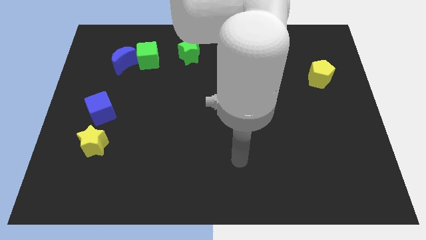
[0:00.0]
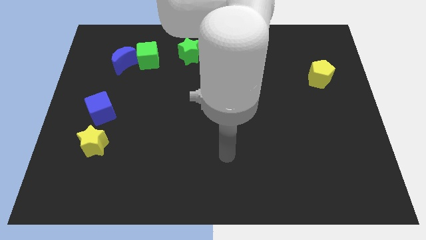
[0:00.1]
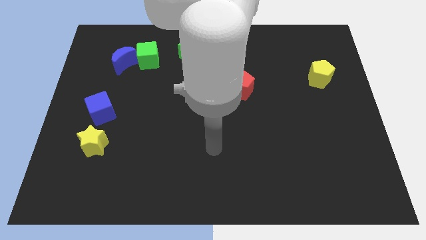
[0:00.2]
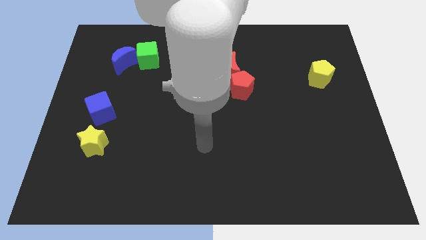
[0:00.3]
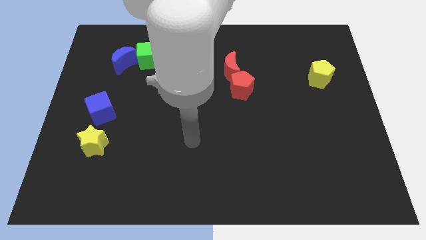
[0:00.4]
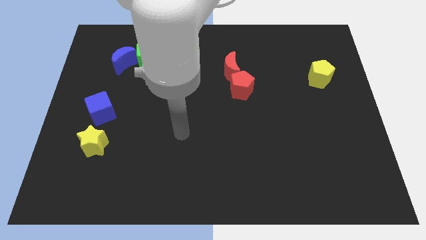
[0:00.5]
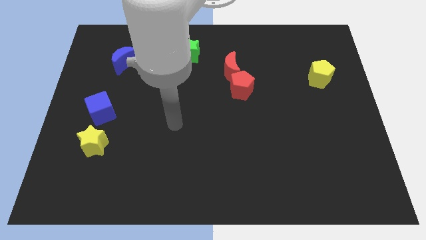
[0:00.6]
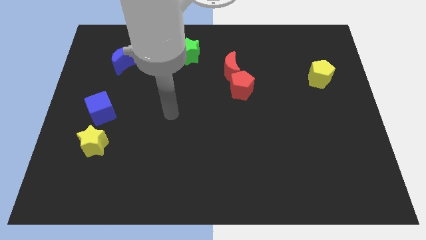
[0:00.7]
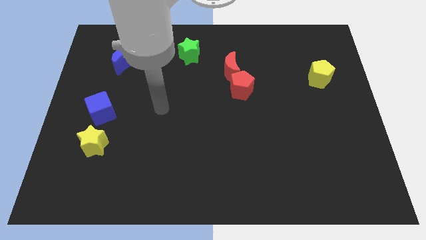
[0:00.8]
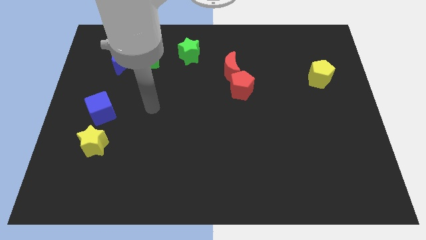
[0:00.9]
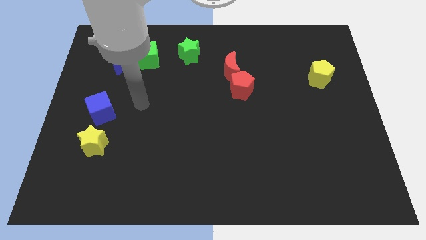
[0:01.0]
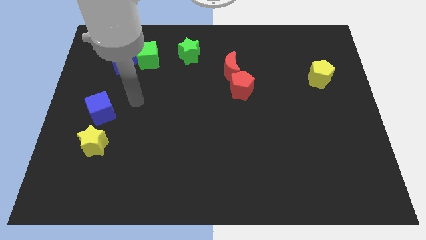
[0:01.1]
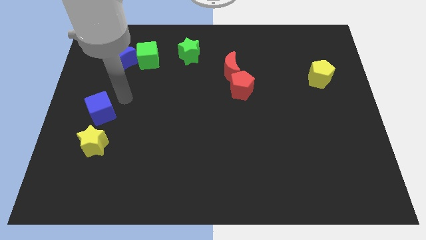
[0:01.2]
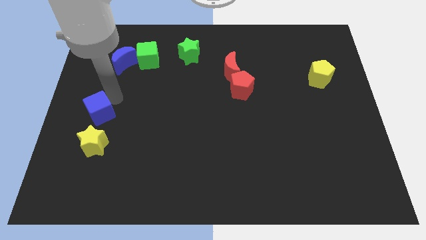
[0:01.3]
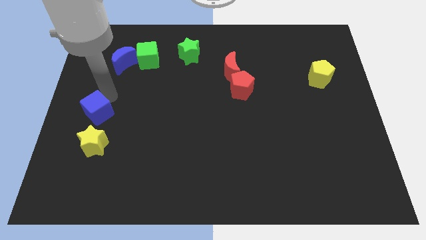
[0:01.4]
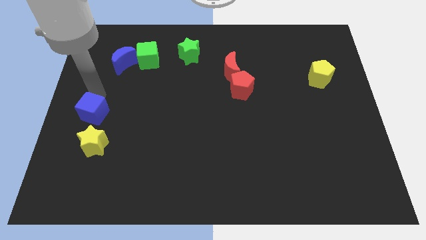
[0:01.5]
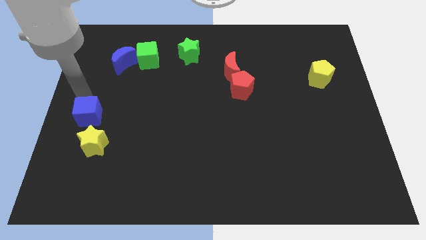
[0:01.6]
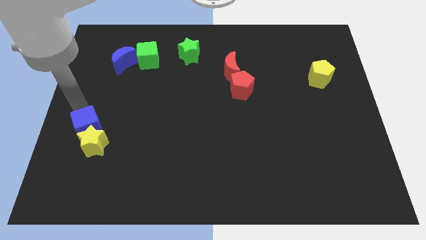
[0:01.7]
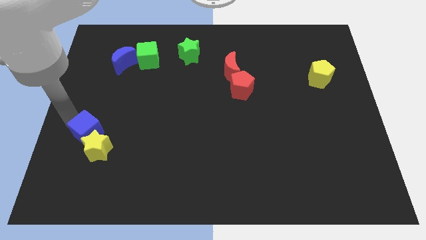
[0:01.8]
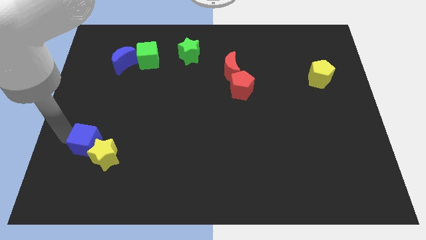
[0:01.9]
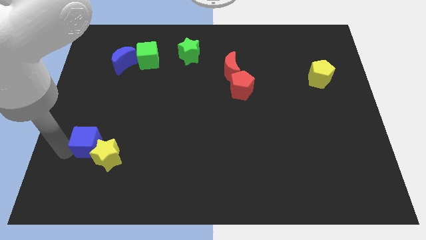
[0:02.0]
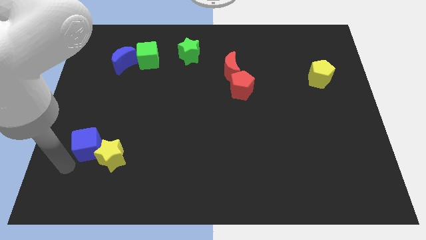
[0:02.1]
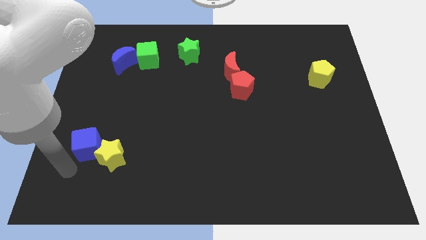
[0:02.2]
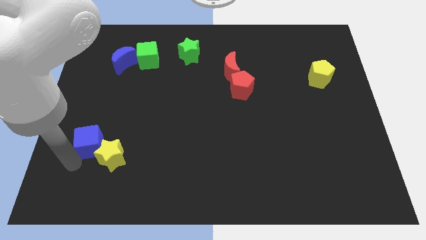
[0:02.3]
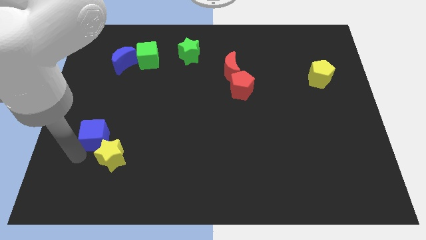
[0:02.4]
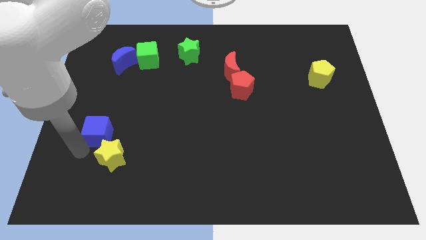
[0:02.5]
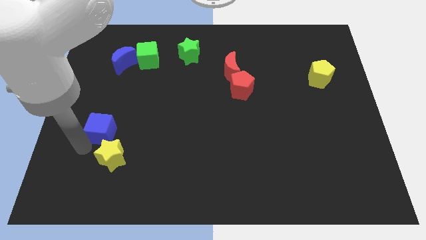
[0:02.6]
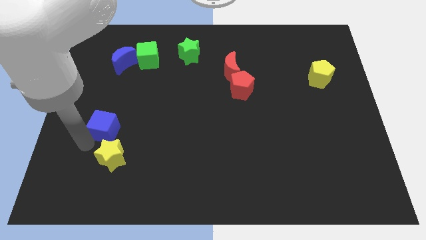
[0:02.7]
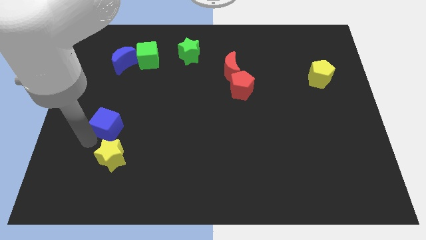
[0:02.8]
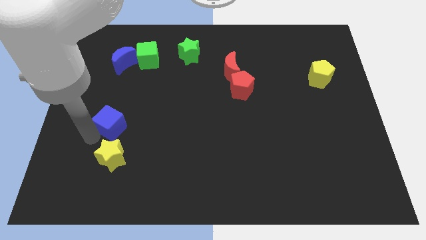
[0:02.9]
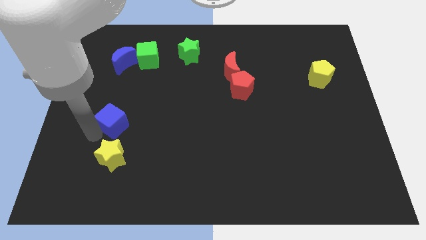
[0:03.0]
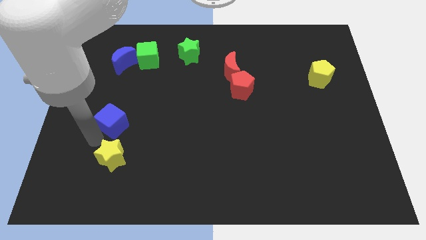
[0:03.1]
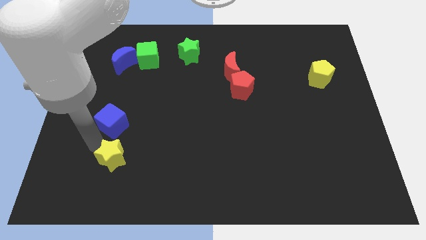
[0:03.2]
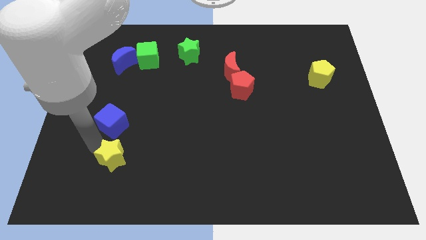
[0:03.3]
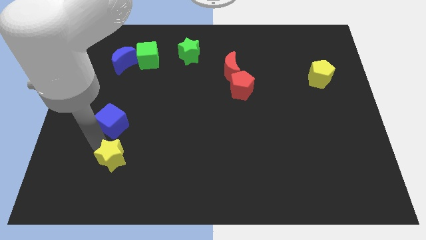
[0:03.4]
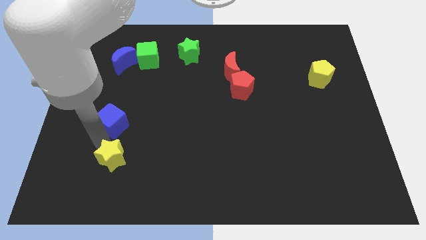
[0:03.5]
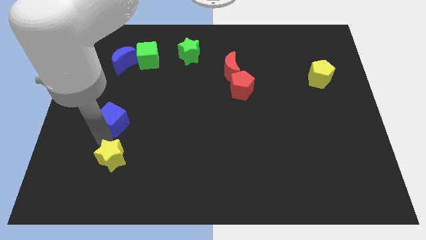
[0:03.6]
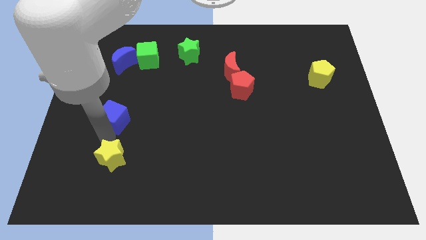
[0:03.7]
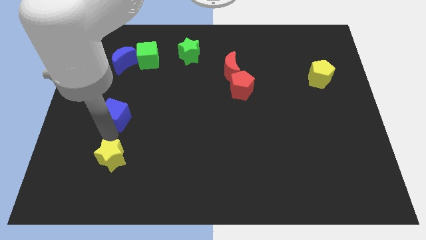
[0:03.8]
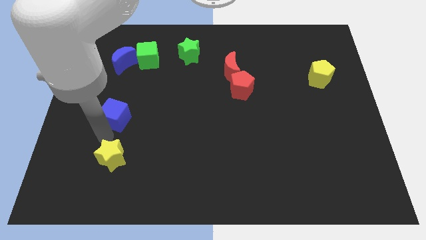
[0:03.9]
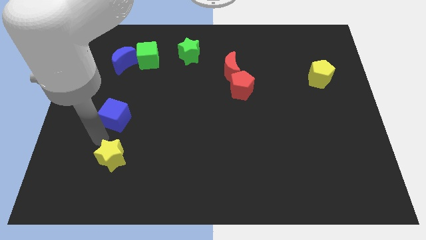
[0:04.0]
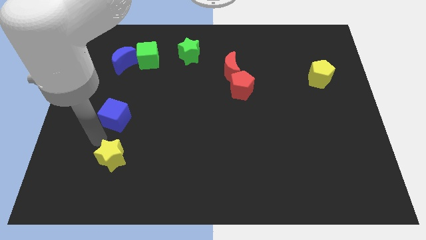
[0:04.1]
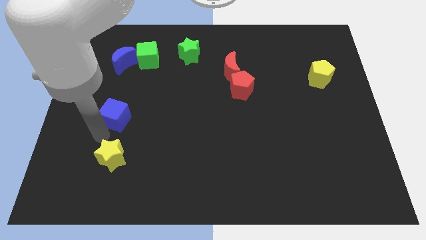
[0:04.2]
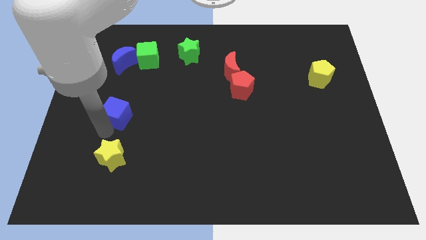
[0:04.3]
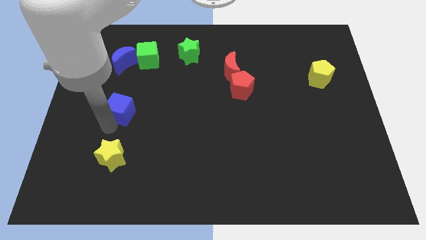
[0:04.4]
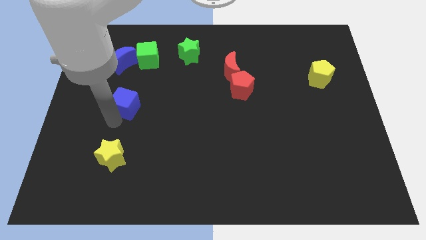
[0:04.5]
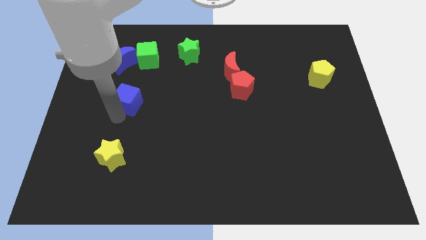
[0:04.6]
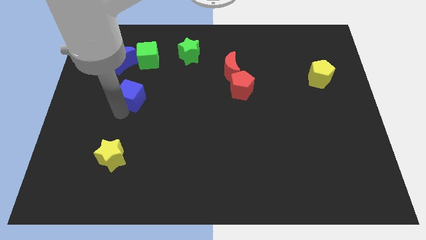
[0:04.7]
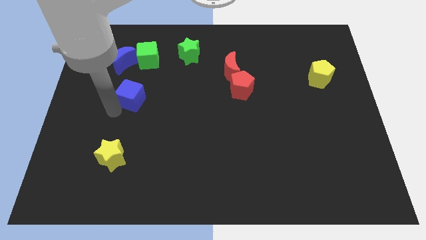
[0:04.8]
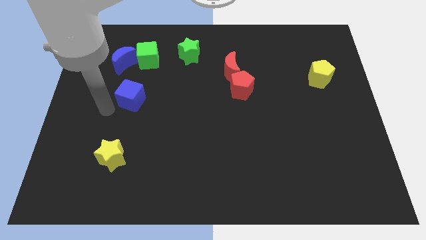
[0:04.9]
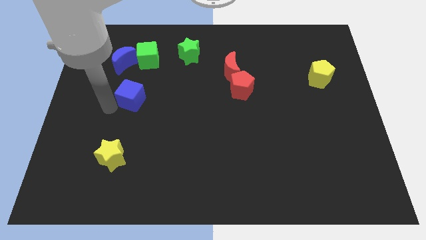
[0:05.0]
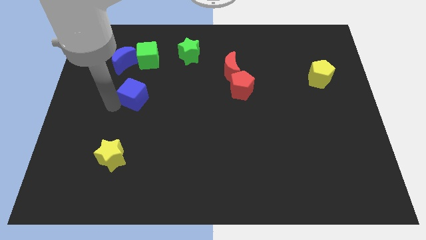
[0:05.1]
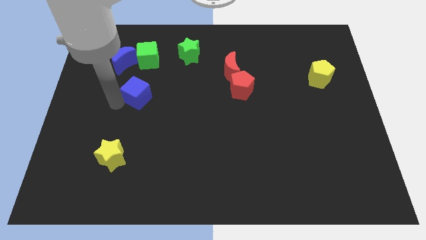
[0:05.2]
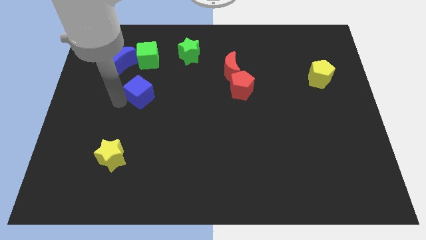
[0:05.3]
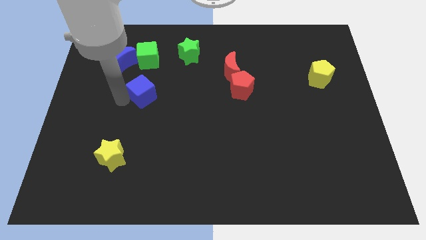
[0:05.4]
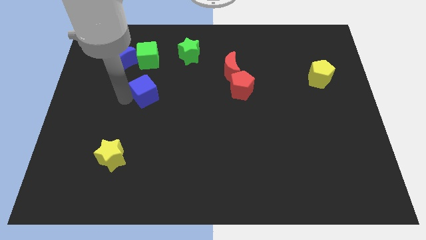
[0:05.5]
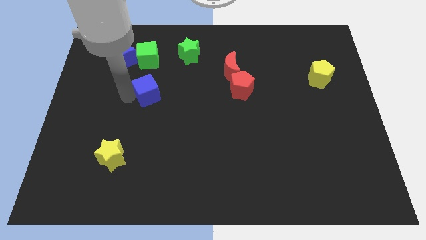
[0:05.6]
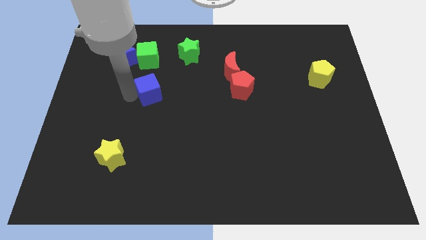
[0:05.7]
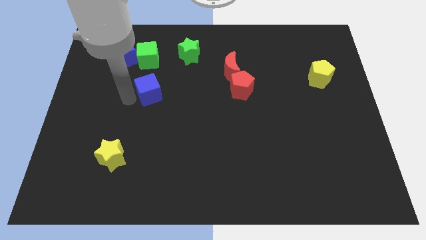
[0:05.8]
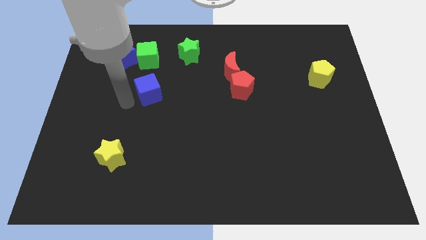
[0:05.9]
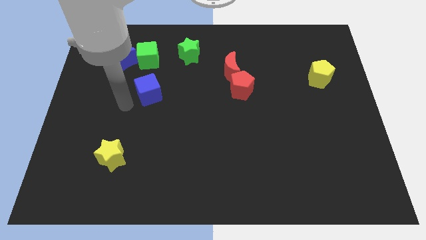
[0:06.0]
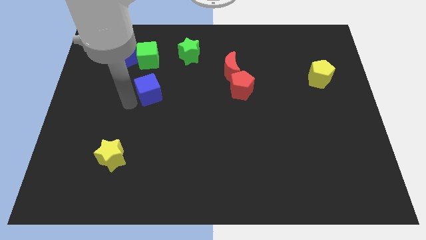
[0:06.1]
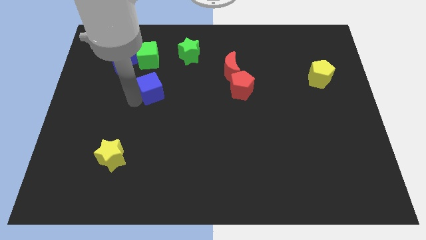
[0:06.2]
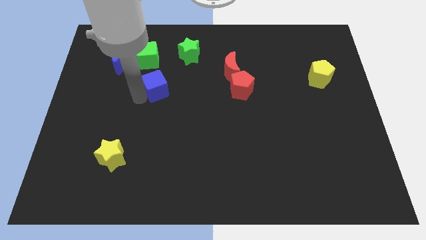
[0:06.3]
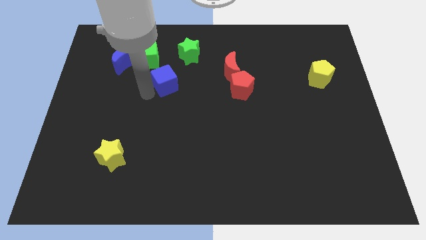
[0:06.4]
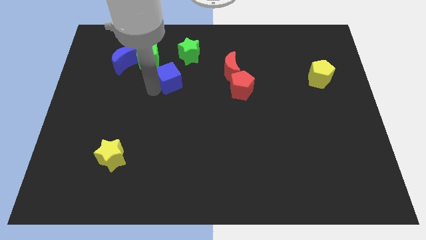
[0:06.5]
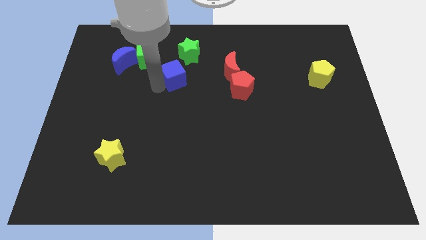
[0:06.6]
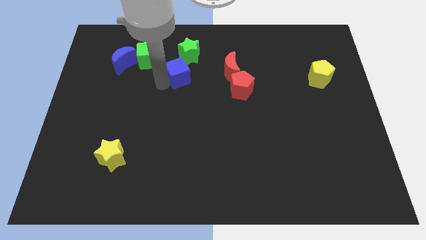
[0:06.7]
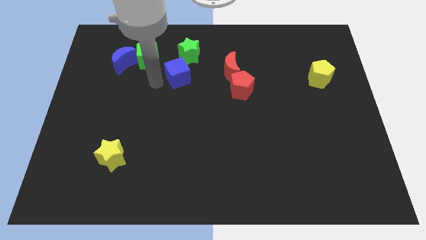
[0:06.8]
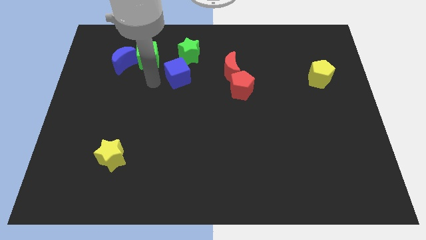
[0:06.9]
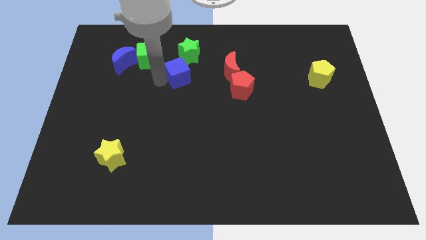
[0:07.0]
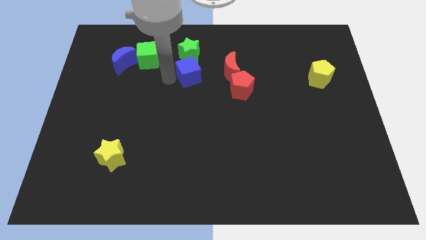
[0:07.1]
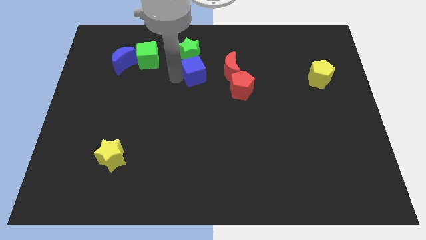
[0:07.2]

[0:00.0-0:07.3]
slide the blue cube diagonally down and to the right of the green star
